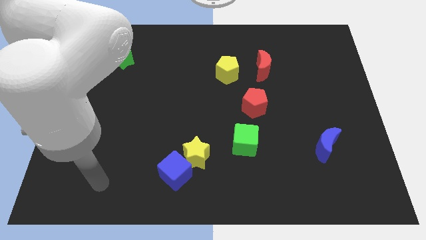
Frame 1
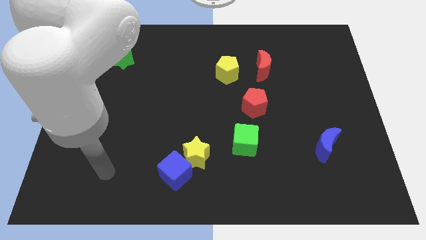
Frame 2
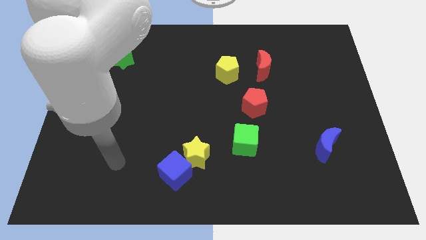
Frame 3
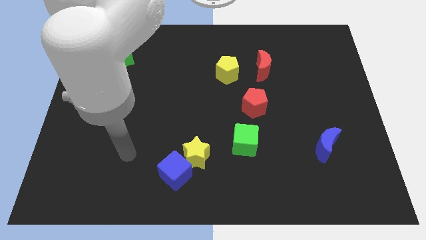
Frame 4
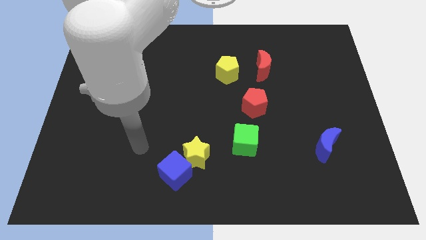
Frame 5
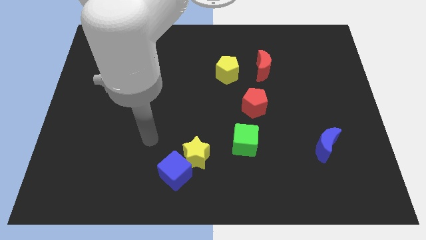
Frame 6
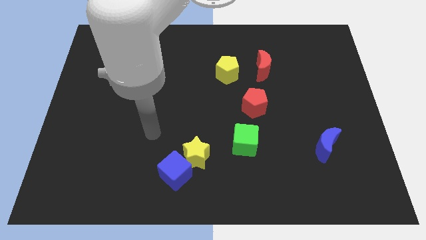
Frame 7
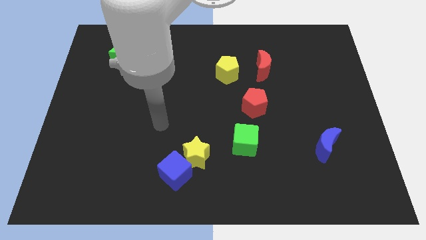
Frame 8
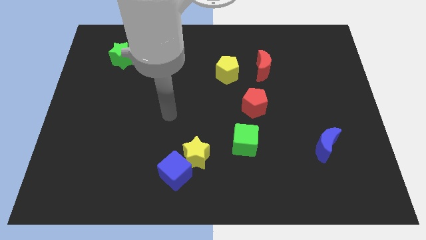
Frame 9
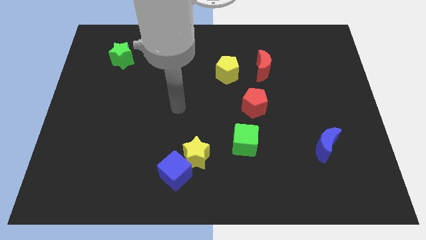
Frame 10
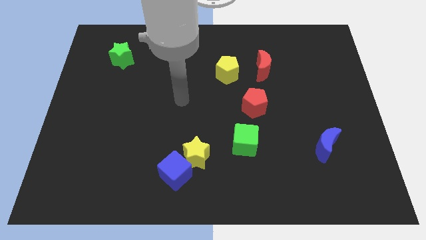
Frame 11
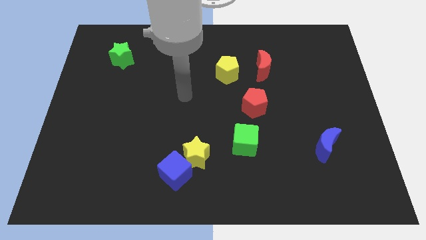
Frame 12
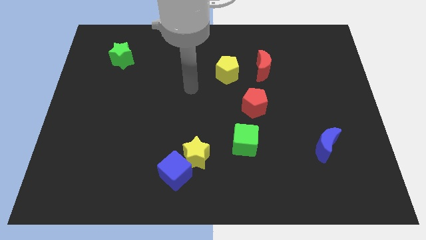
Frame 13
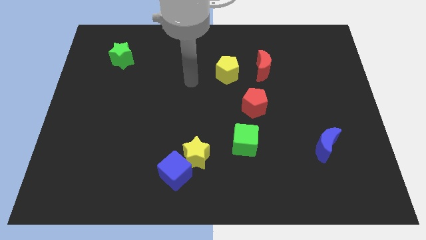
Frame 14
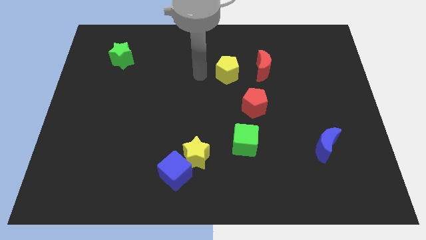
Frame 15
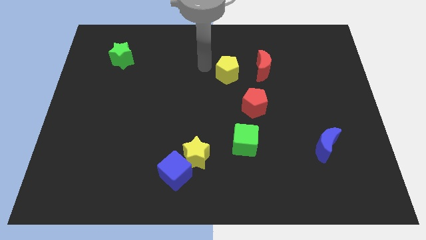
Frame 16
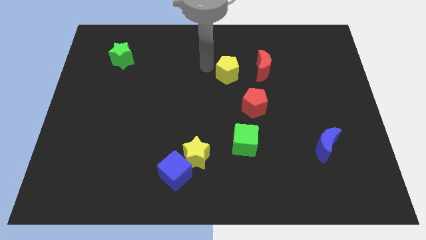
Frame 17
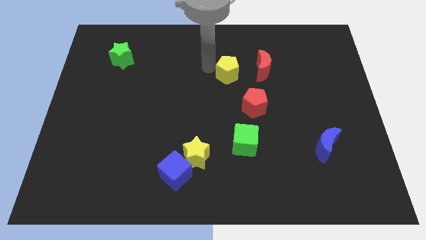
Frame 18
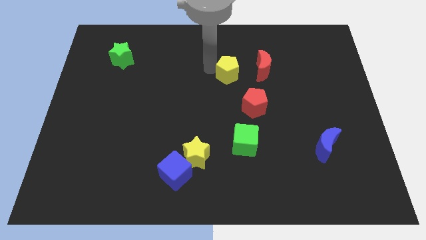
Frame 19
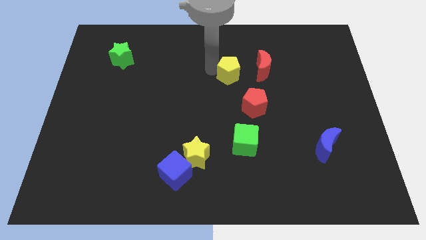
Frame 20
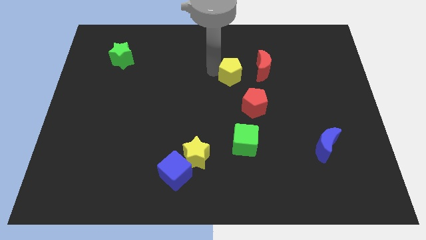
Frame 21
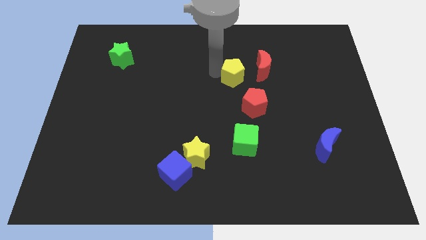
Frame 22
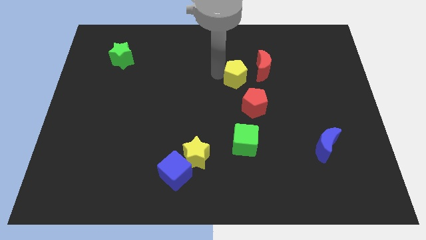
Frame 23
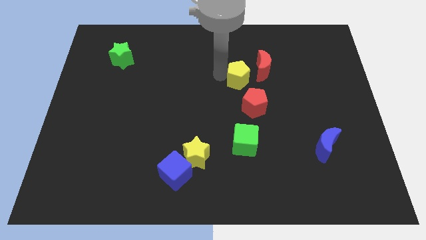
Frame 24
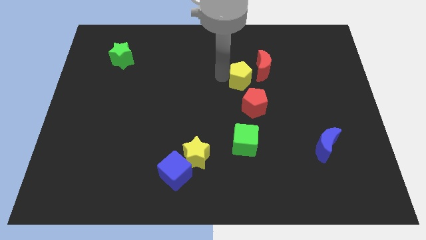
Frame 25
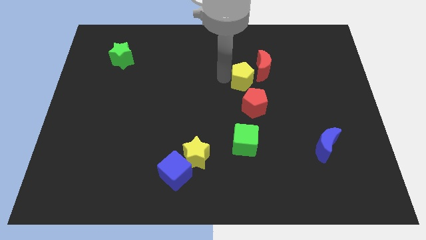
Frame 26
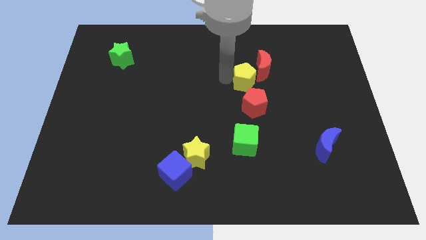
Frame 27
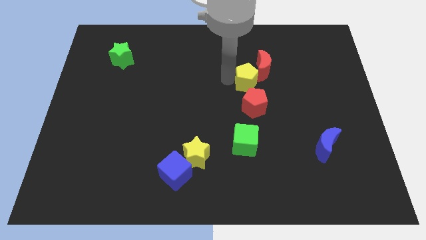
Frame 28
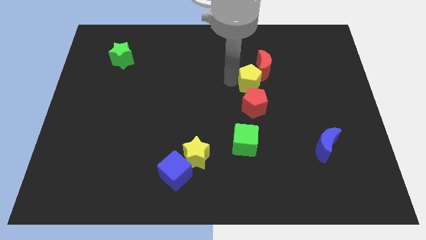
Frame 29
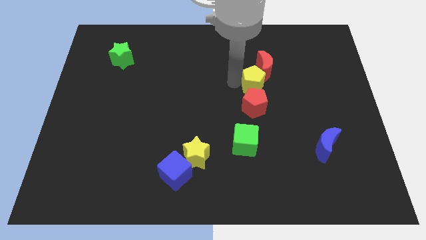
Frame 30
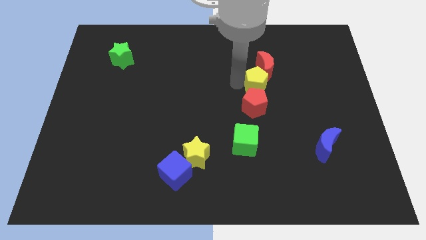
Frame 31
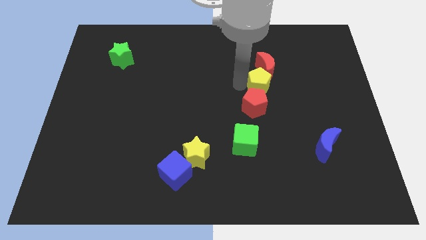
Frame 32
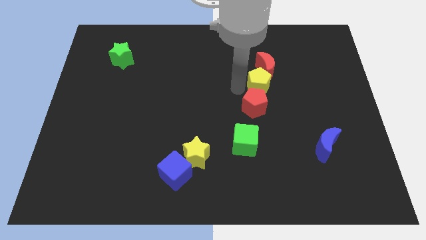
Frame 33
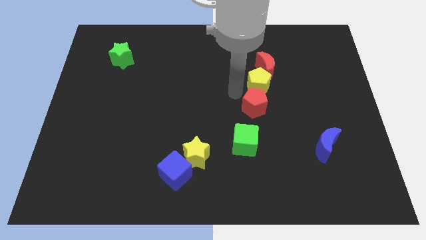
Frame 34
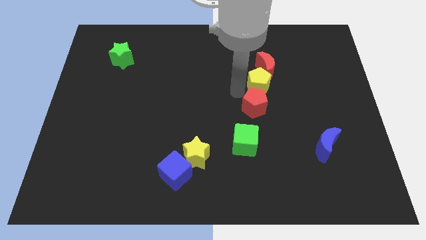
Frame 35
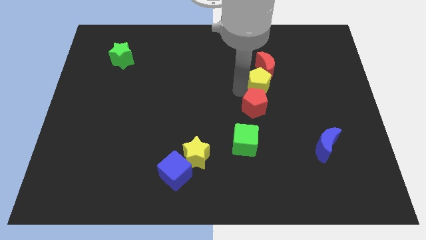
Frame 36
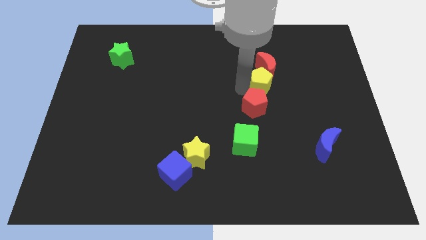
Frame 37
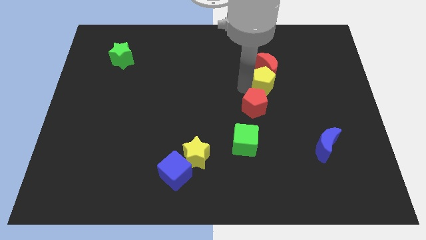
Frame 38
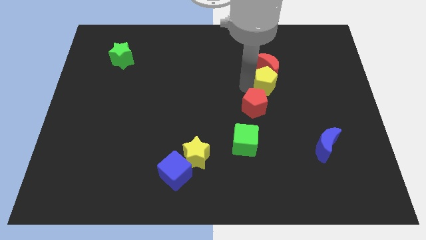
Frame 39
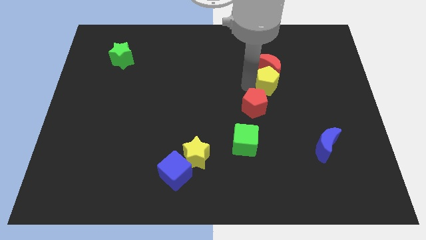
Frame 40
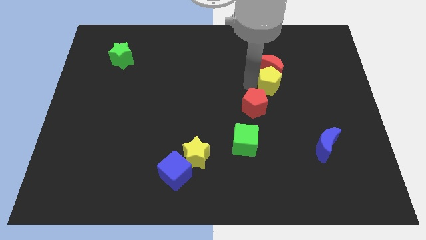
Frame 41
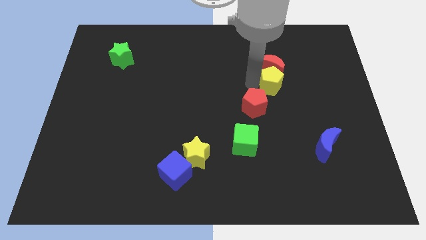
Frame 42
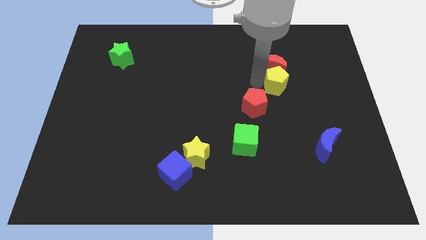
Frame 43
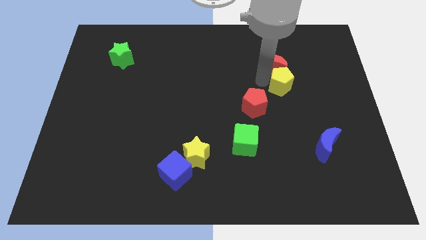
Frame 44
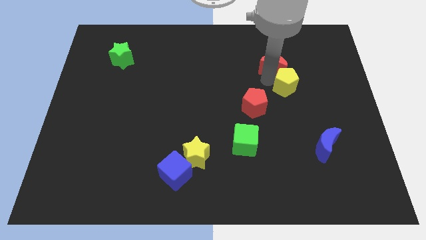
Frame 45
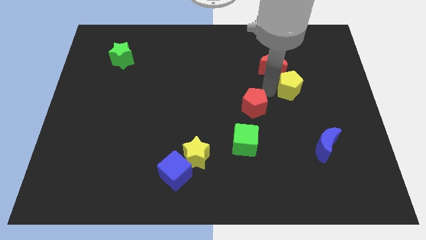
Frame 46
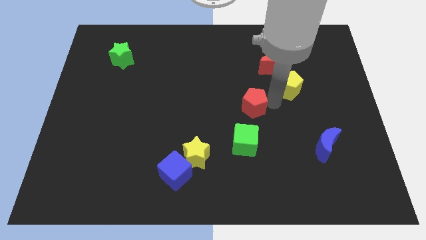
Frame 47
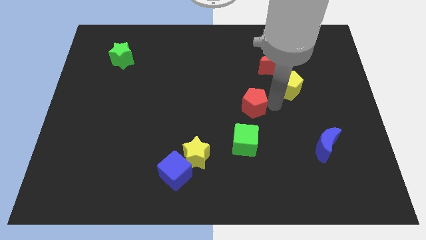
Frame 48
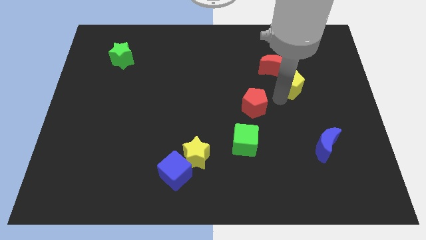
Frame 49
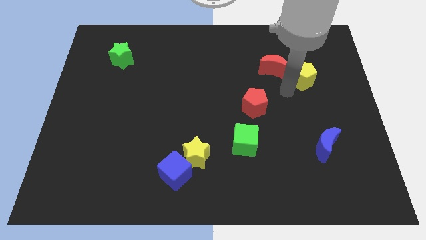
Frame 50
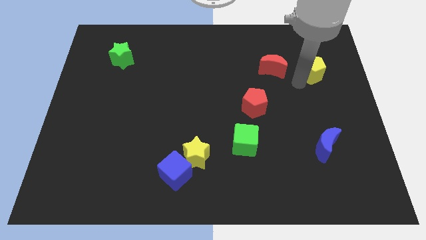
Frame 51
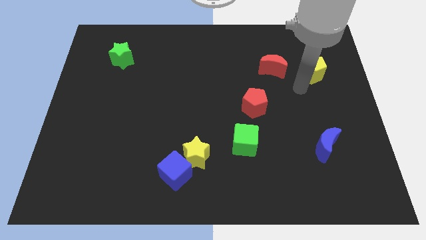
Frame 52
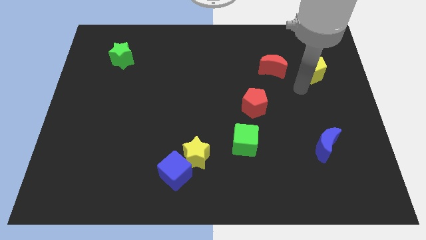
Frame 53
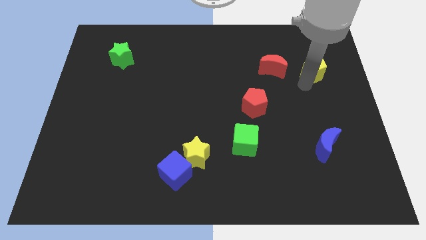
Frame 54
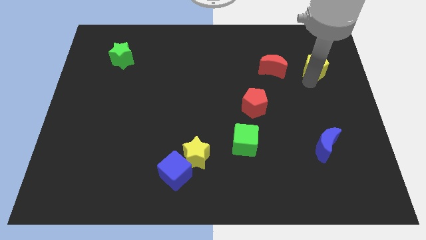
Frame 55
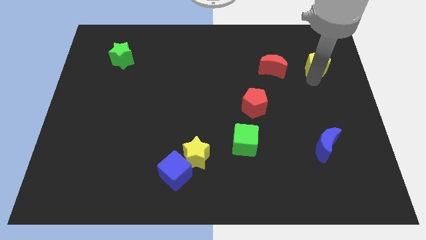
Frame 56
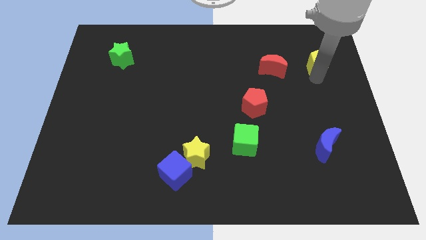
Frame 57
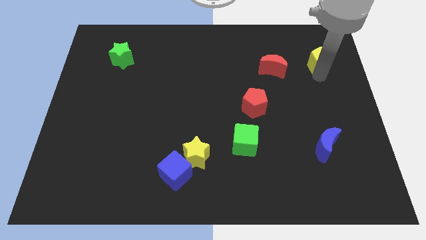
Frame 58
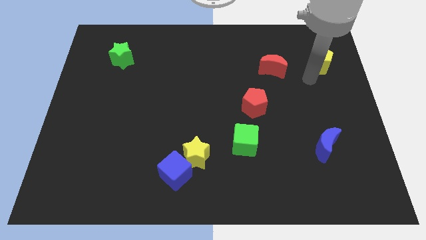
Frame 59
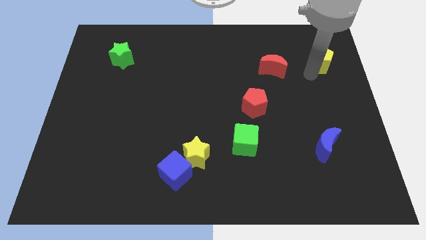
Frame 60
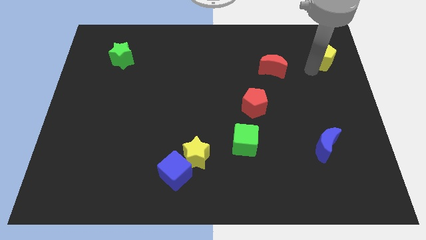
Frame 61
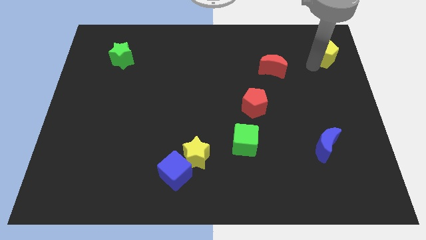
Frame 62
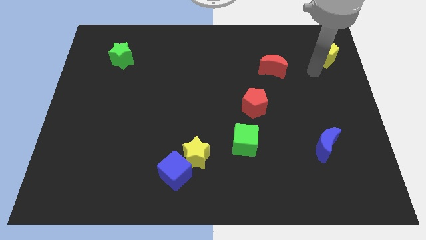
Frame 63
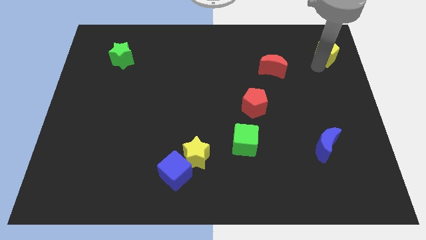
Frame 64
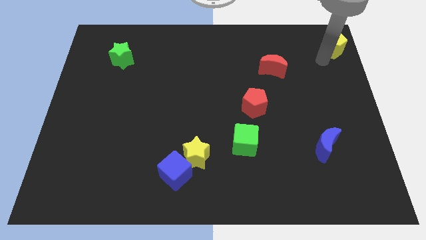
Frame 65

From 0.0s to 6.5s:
move the yellow pentagon to the top right

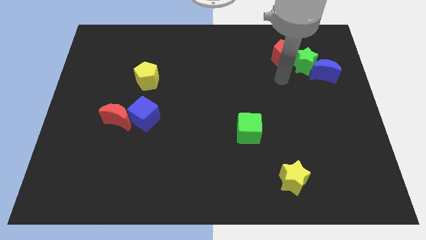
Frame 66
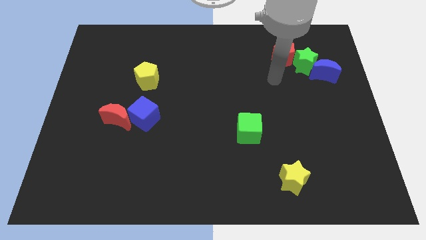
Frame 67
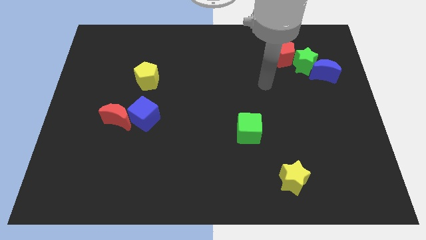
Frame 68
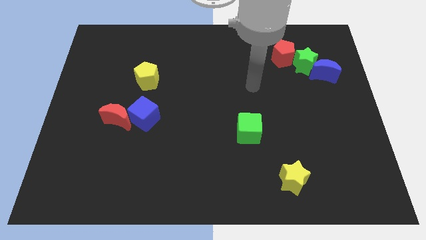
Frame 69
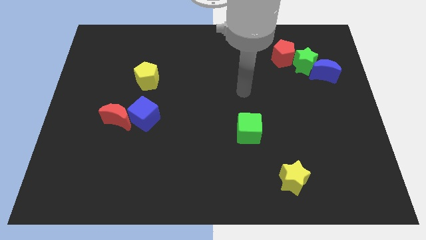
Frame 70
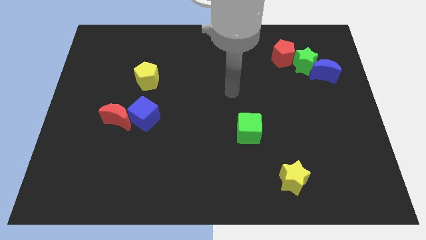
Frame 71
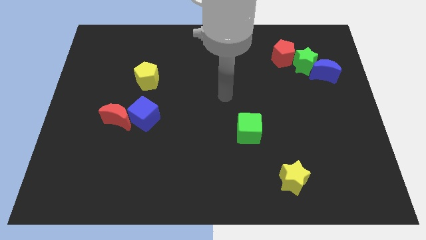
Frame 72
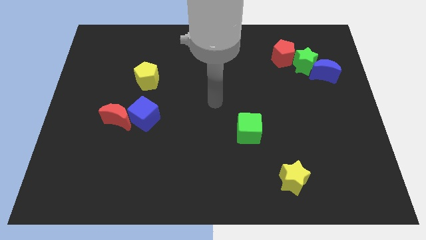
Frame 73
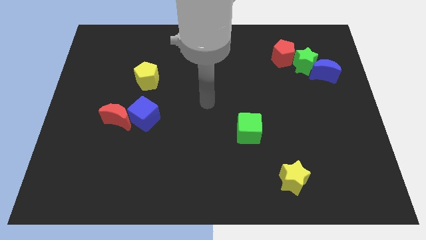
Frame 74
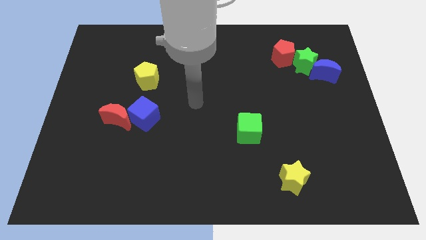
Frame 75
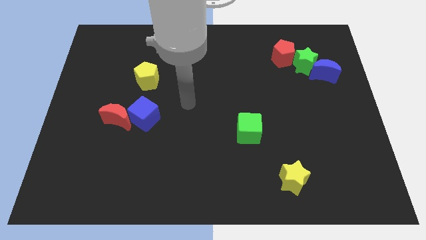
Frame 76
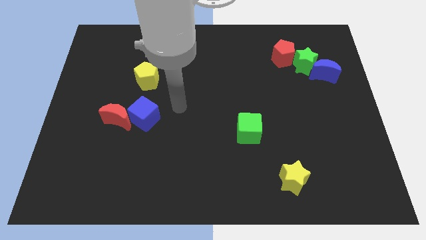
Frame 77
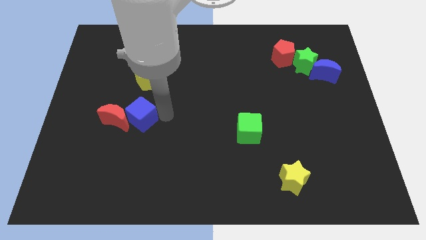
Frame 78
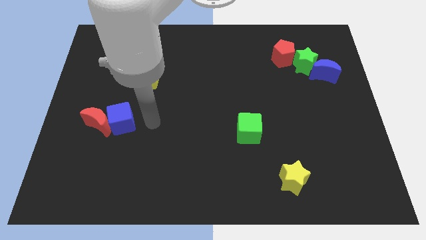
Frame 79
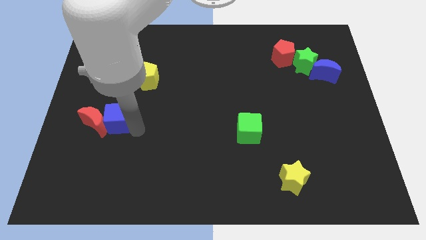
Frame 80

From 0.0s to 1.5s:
push the red moon to the center left
